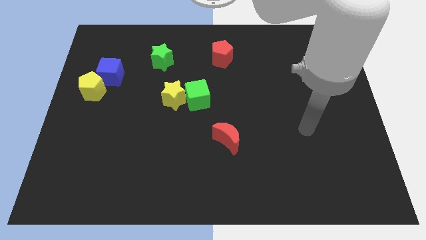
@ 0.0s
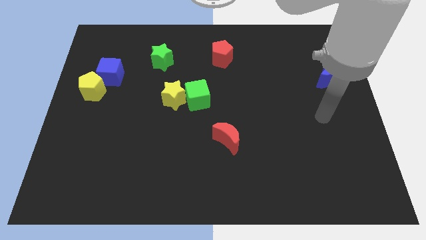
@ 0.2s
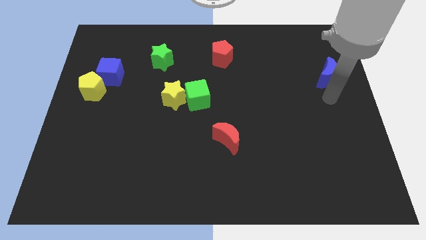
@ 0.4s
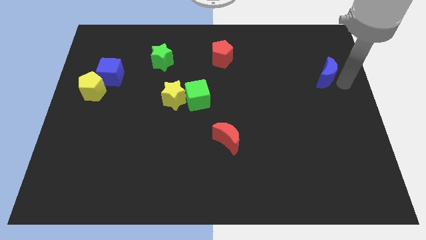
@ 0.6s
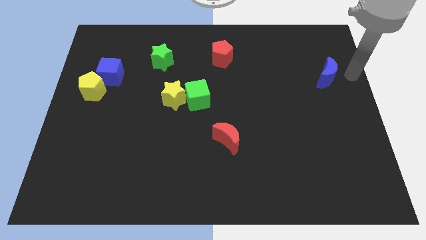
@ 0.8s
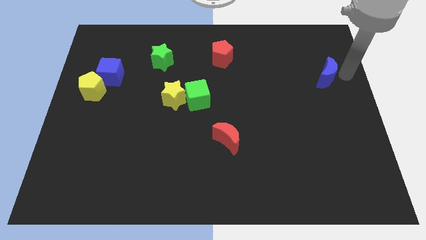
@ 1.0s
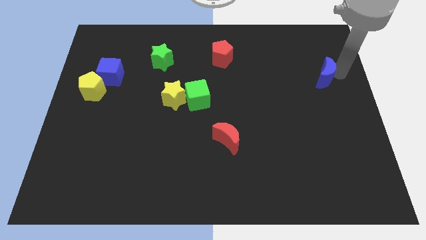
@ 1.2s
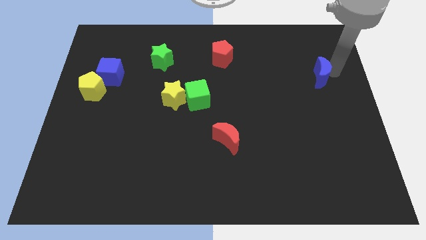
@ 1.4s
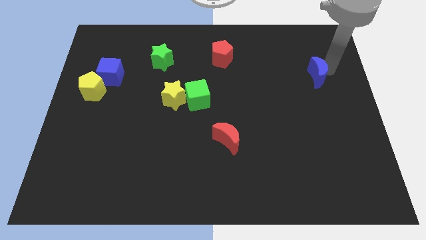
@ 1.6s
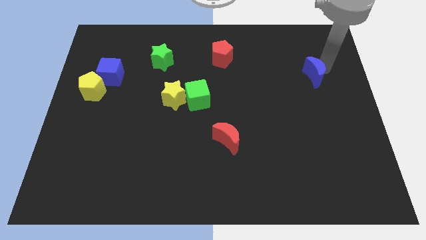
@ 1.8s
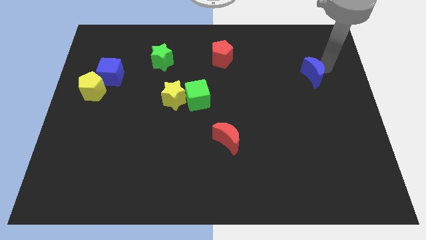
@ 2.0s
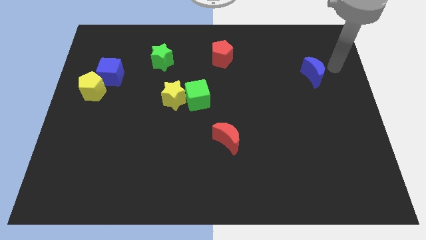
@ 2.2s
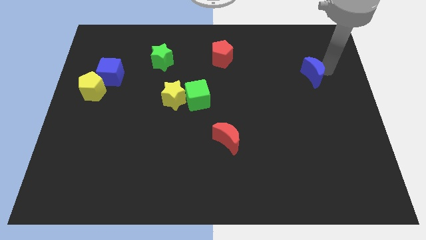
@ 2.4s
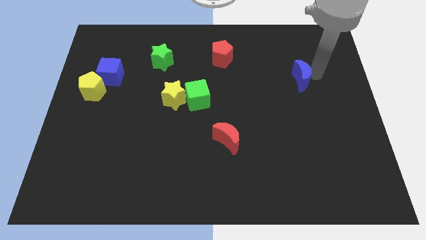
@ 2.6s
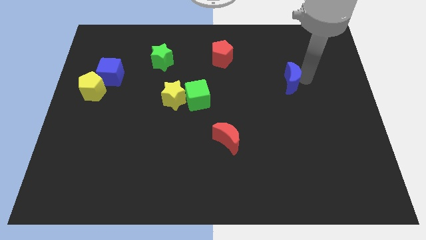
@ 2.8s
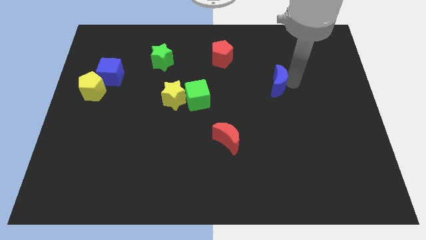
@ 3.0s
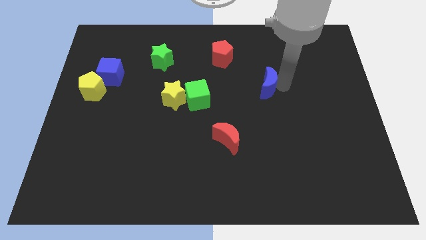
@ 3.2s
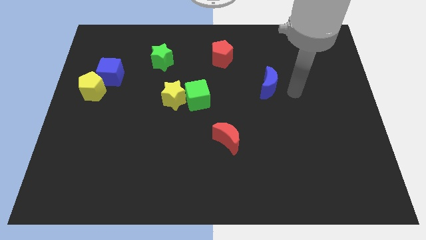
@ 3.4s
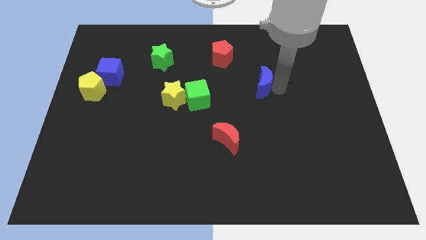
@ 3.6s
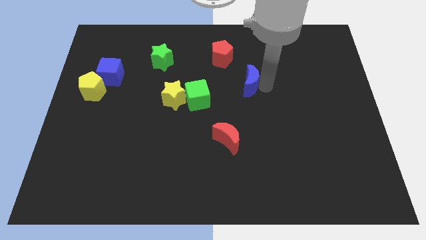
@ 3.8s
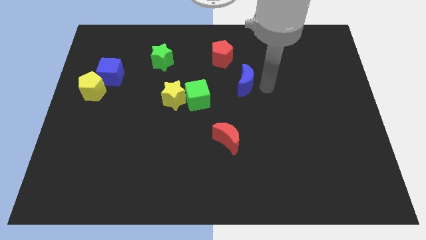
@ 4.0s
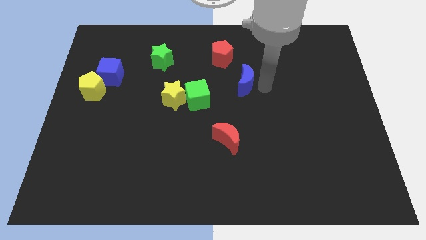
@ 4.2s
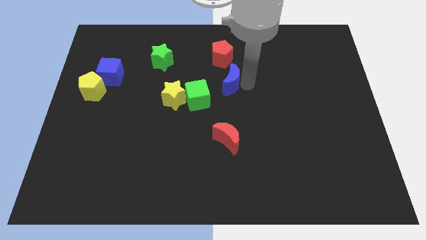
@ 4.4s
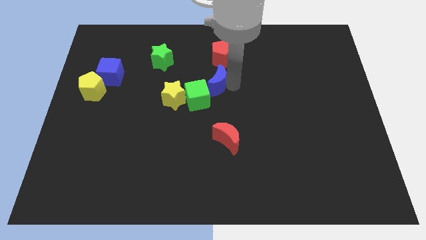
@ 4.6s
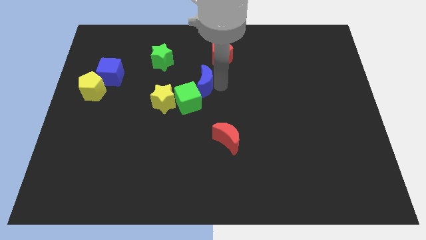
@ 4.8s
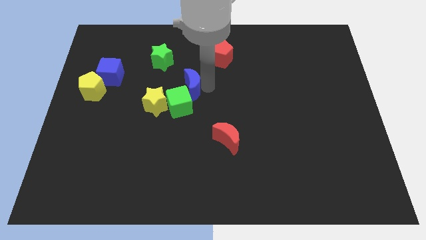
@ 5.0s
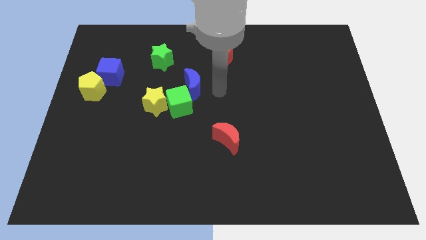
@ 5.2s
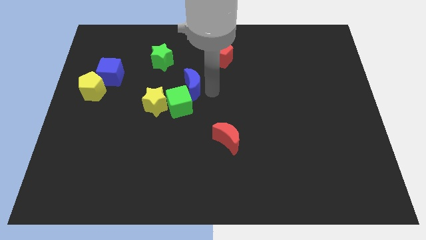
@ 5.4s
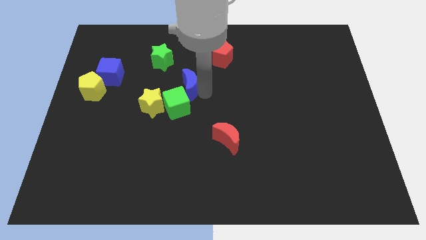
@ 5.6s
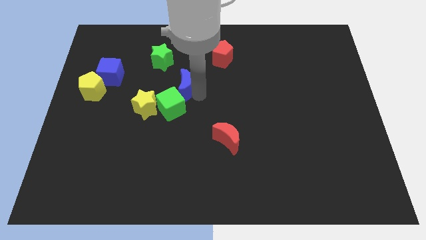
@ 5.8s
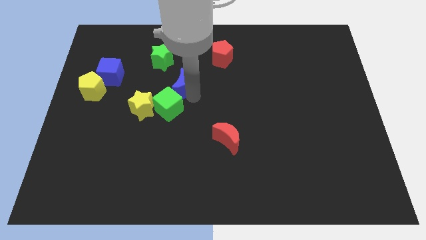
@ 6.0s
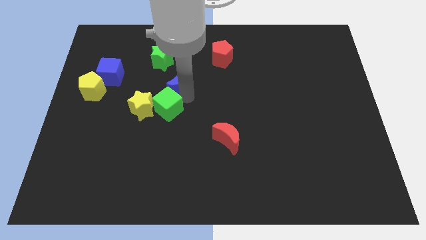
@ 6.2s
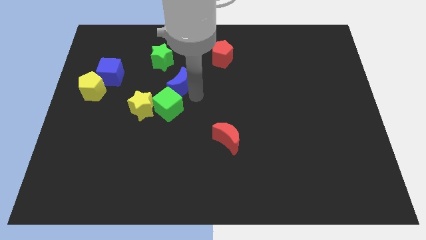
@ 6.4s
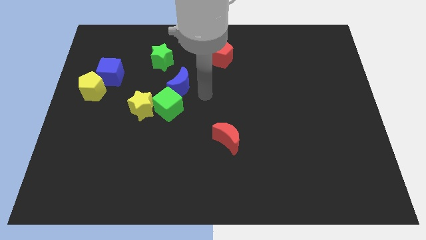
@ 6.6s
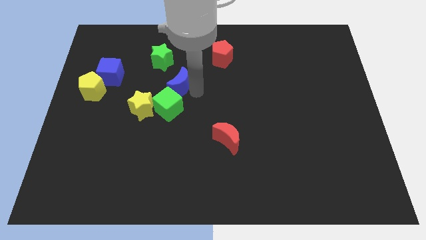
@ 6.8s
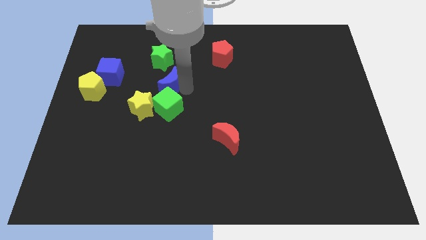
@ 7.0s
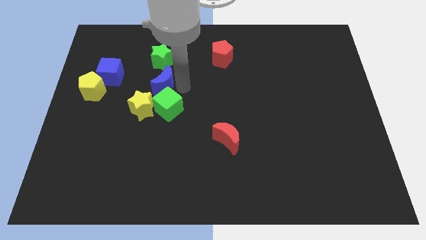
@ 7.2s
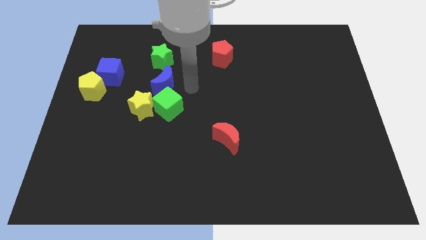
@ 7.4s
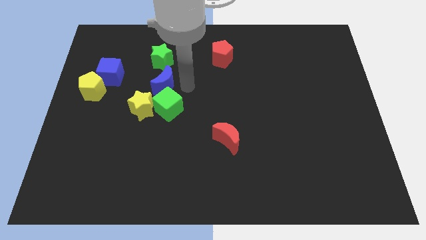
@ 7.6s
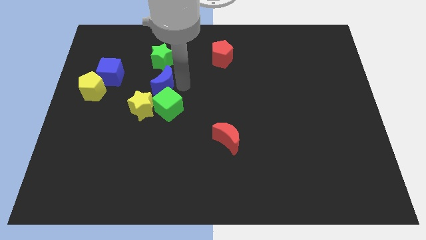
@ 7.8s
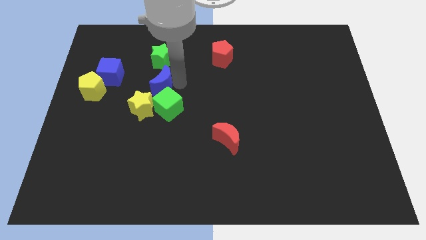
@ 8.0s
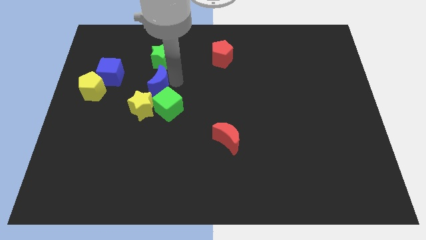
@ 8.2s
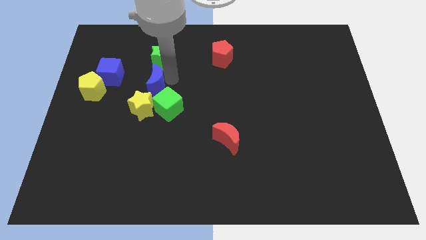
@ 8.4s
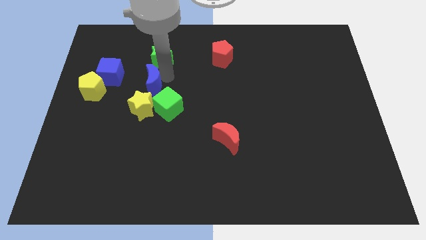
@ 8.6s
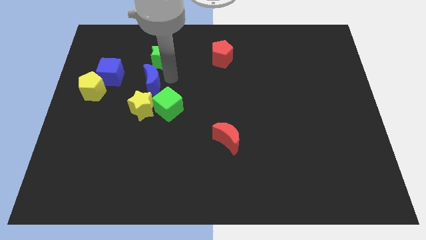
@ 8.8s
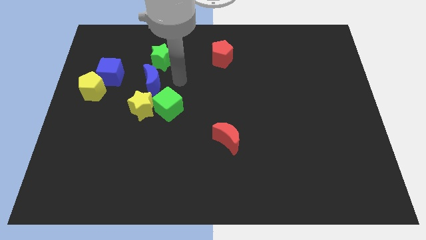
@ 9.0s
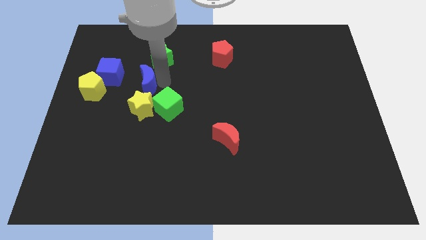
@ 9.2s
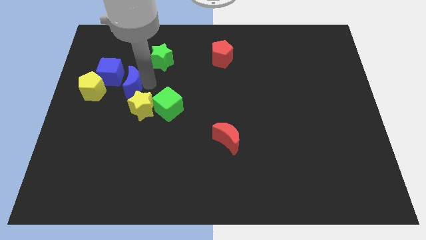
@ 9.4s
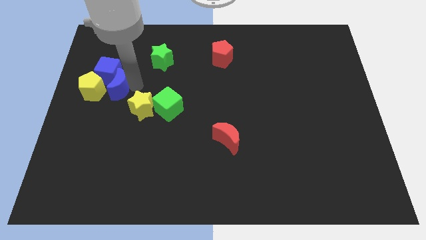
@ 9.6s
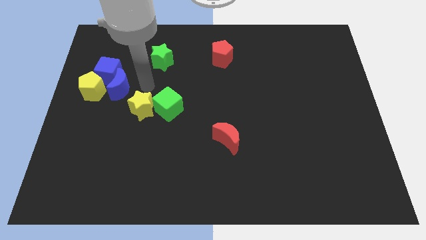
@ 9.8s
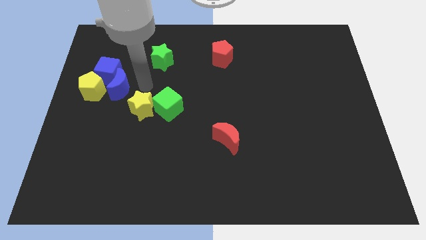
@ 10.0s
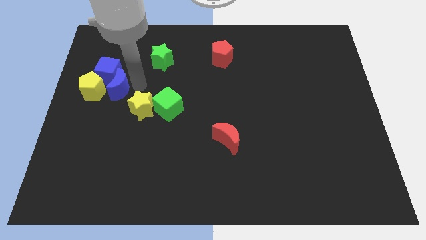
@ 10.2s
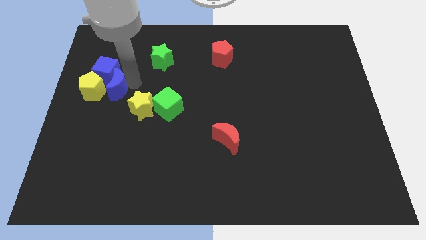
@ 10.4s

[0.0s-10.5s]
push the blue moon to the yellow pentagon
